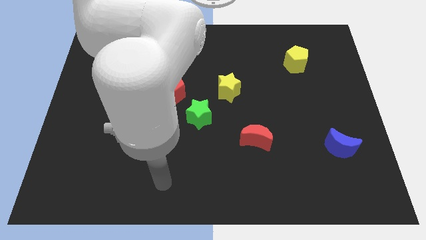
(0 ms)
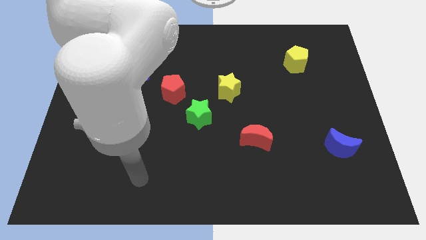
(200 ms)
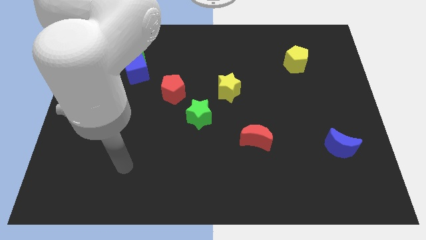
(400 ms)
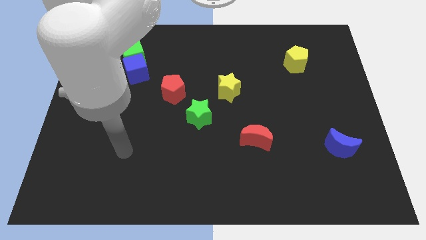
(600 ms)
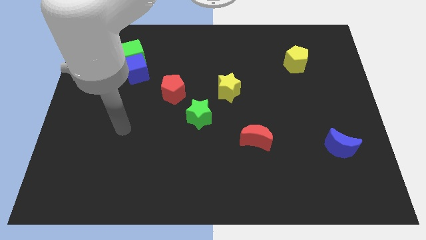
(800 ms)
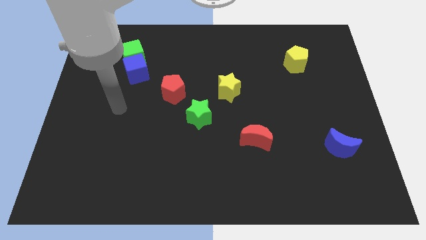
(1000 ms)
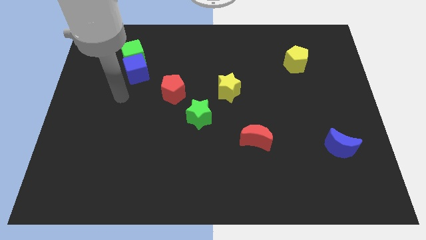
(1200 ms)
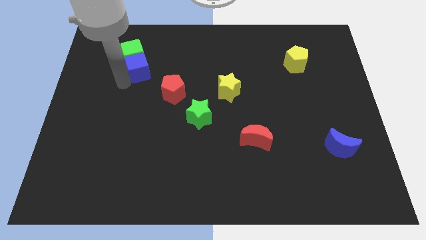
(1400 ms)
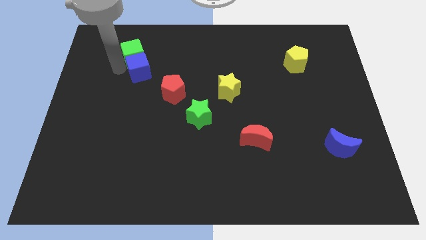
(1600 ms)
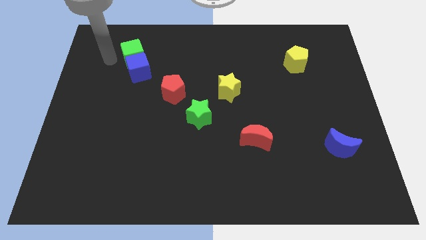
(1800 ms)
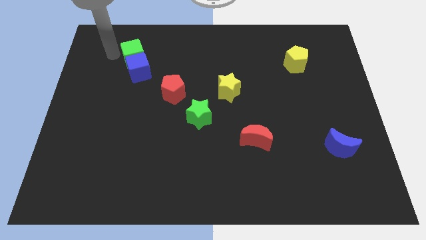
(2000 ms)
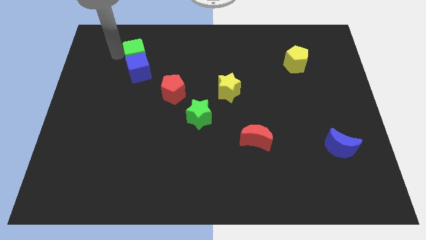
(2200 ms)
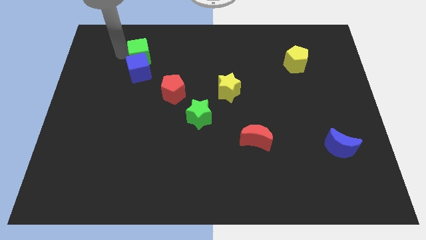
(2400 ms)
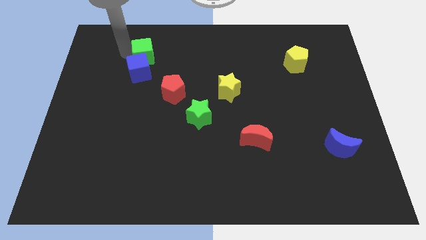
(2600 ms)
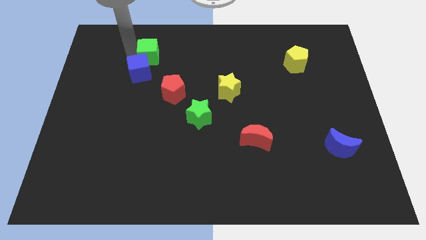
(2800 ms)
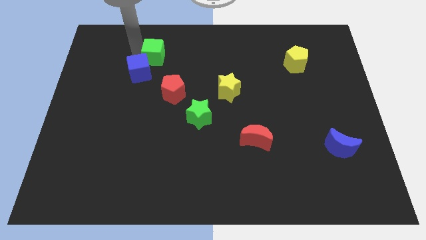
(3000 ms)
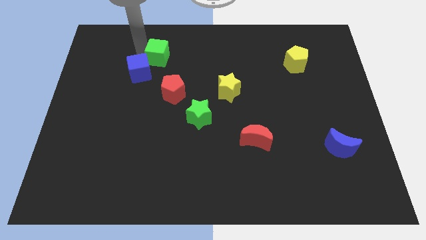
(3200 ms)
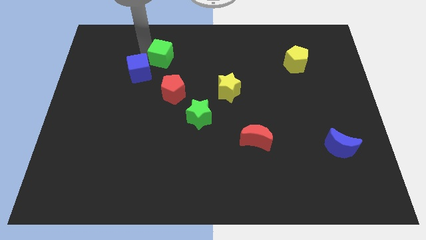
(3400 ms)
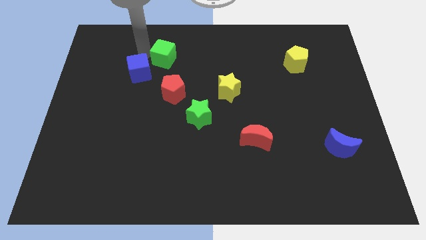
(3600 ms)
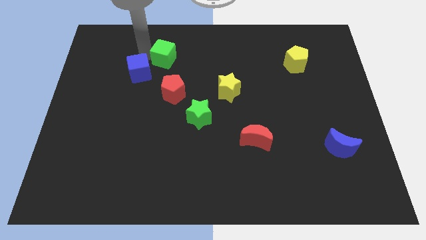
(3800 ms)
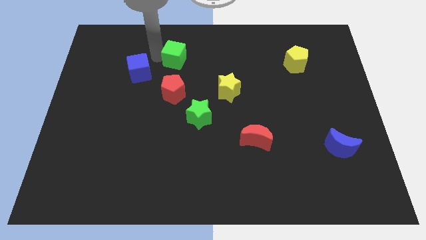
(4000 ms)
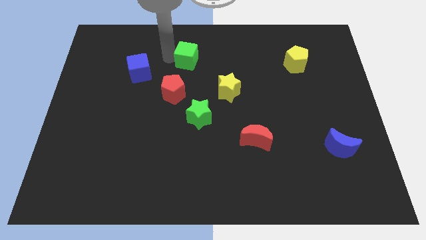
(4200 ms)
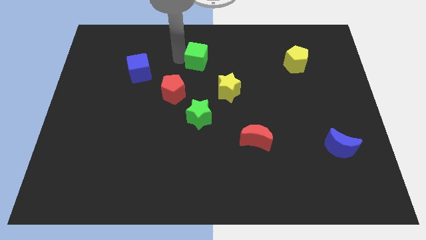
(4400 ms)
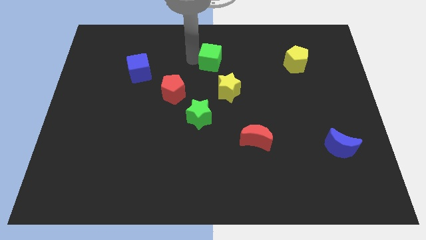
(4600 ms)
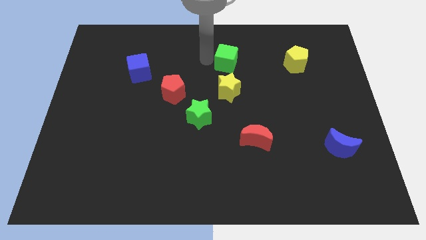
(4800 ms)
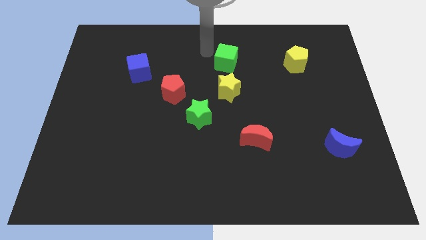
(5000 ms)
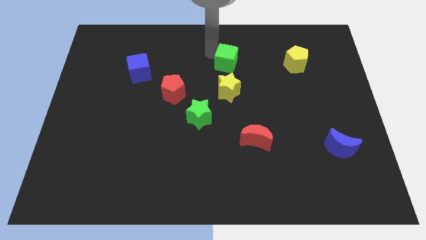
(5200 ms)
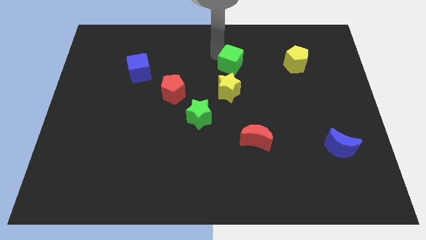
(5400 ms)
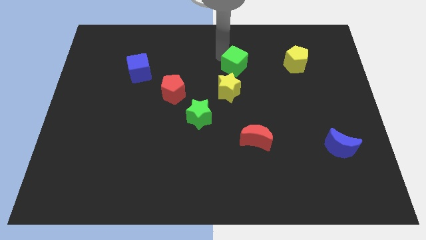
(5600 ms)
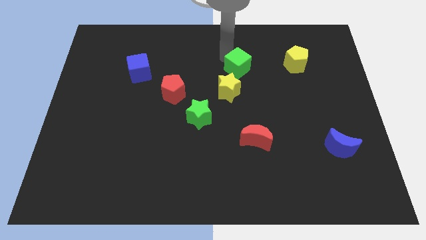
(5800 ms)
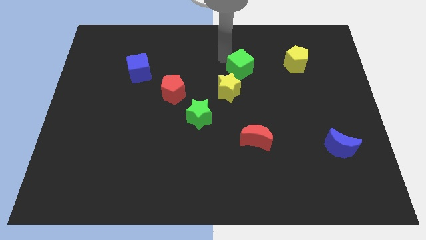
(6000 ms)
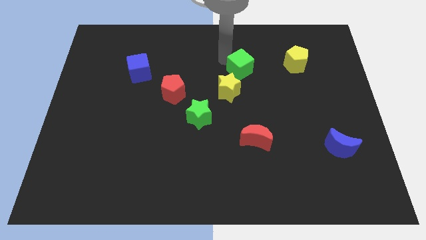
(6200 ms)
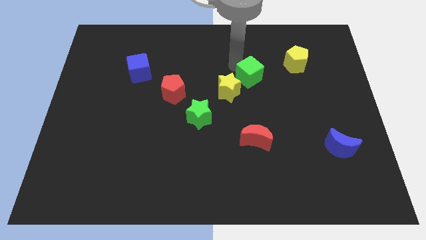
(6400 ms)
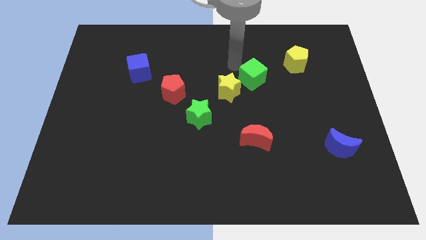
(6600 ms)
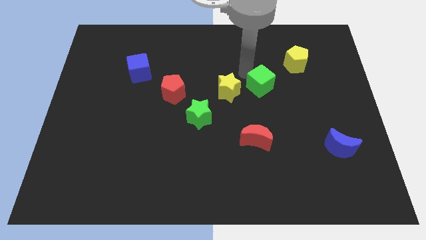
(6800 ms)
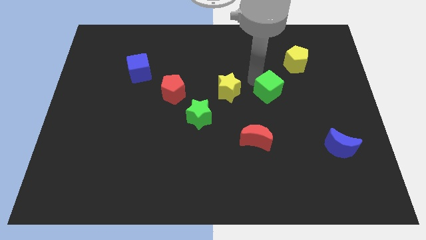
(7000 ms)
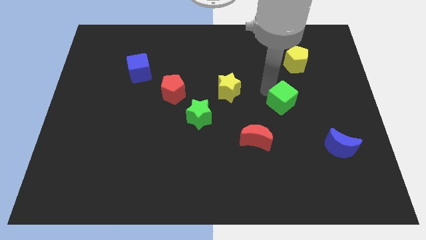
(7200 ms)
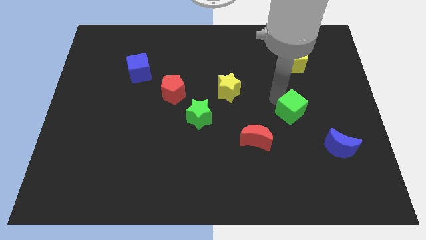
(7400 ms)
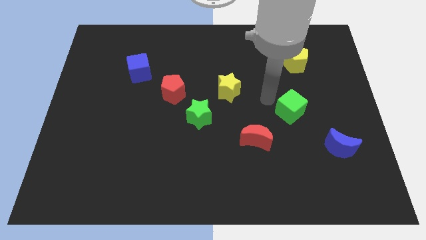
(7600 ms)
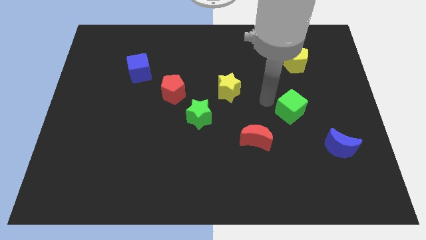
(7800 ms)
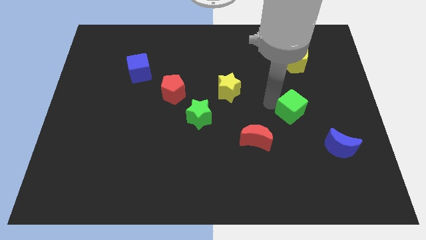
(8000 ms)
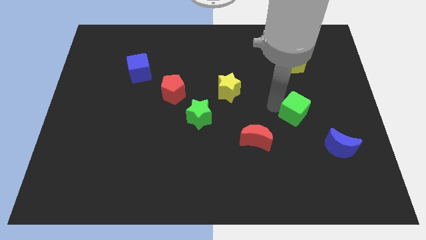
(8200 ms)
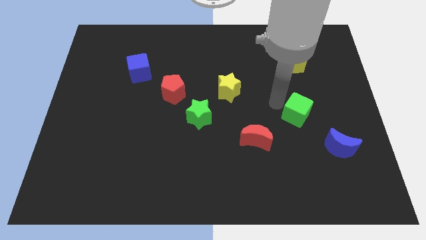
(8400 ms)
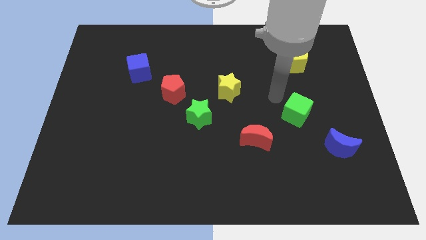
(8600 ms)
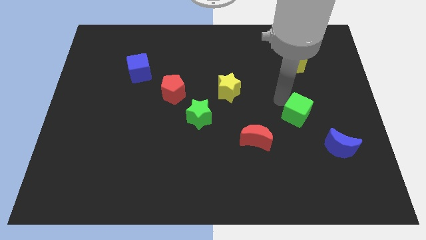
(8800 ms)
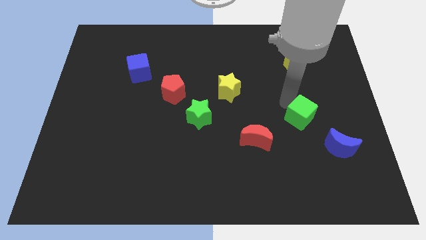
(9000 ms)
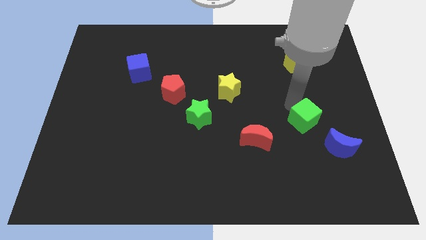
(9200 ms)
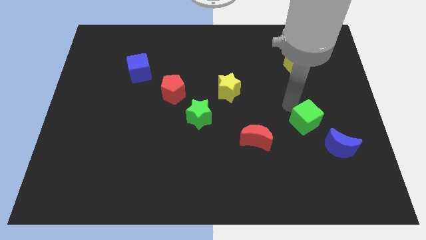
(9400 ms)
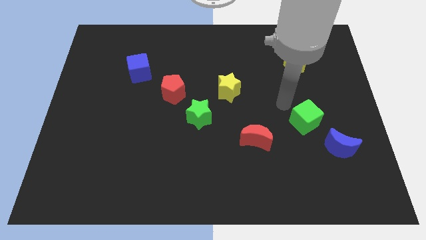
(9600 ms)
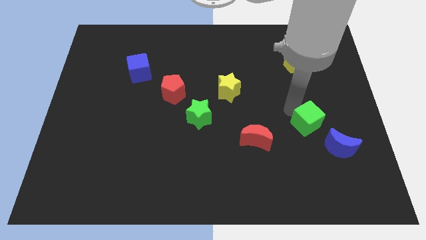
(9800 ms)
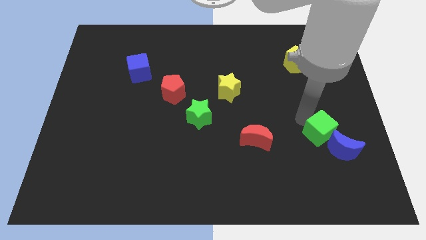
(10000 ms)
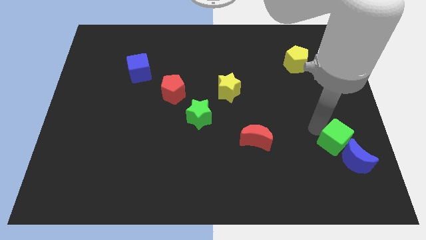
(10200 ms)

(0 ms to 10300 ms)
put the green cube to the blue moon

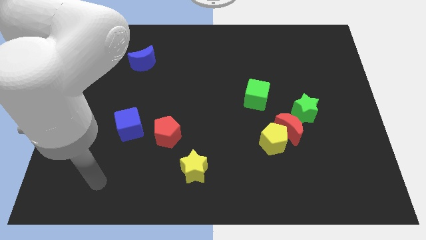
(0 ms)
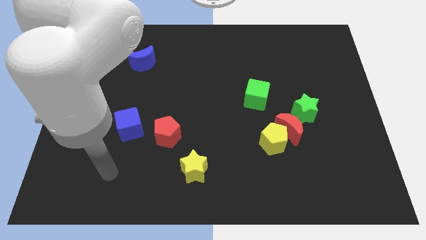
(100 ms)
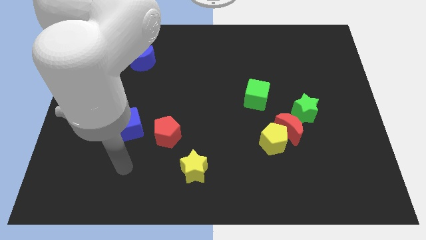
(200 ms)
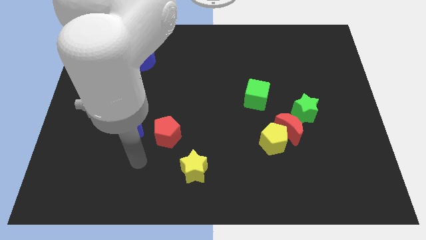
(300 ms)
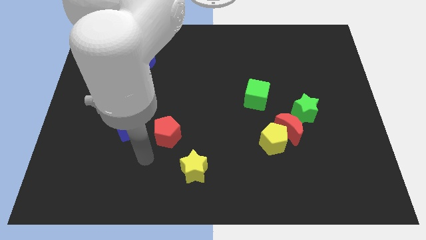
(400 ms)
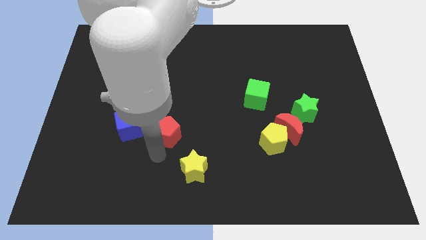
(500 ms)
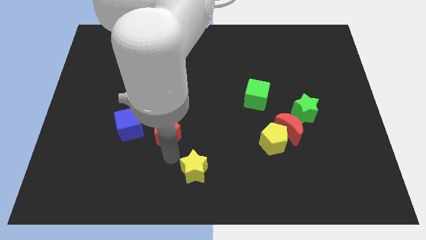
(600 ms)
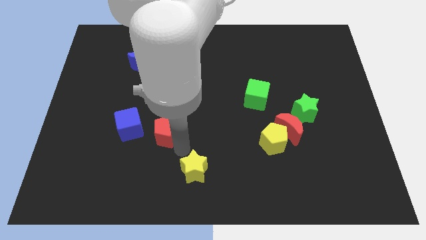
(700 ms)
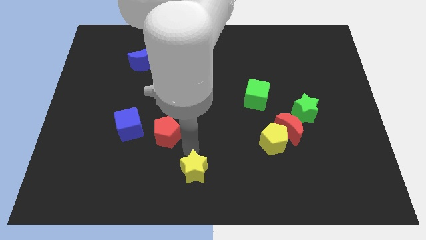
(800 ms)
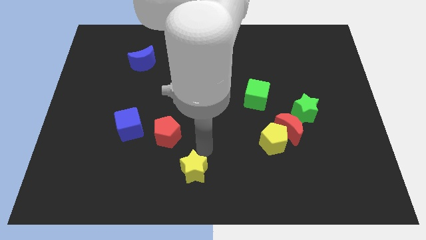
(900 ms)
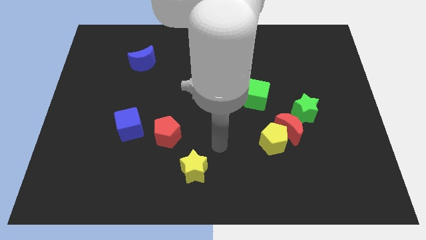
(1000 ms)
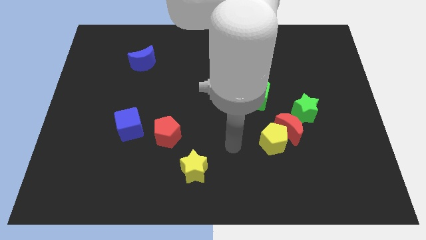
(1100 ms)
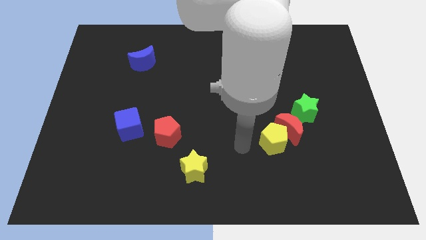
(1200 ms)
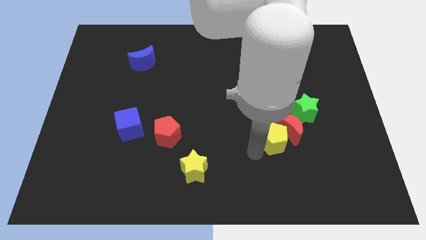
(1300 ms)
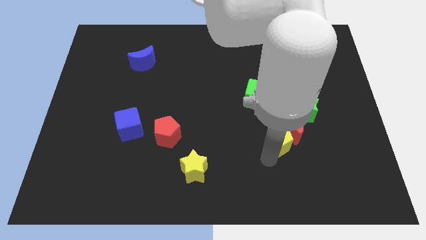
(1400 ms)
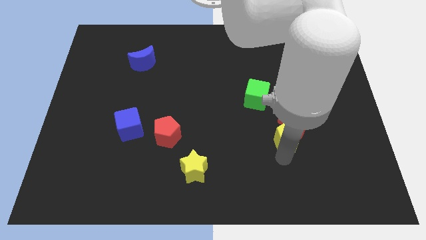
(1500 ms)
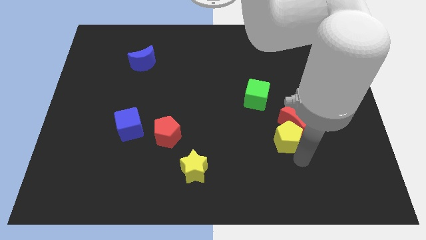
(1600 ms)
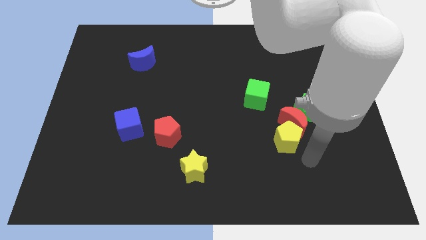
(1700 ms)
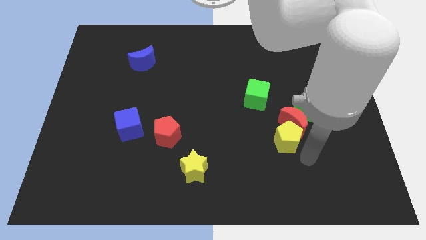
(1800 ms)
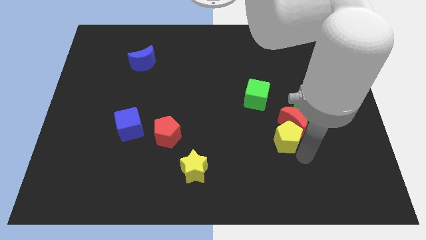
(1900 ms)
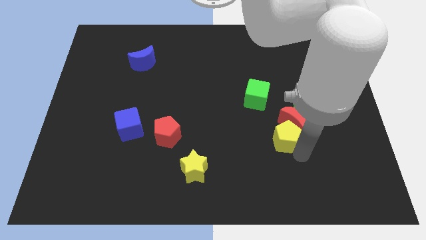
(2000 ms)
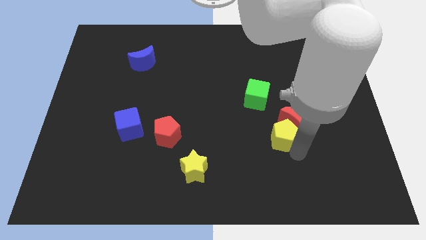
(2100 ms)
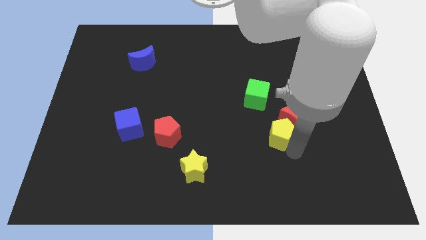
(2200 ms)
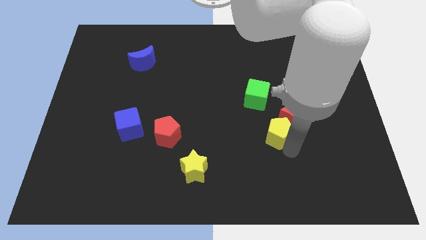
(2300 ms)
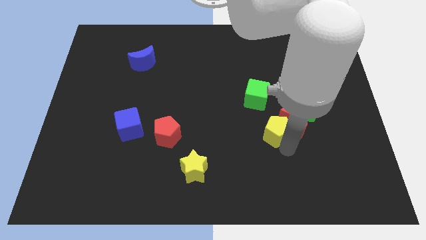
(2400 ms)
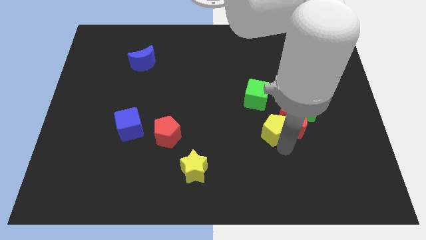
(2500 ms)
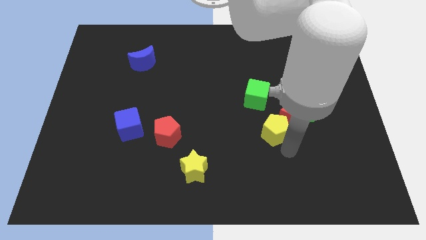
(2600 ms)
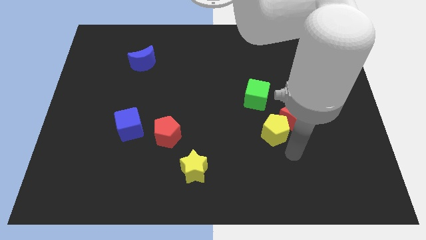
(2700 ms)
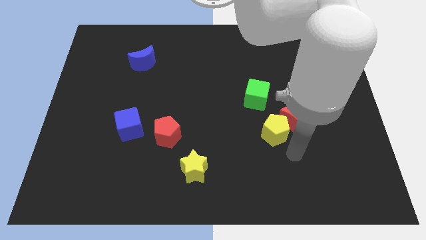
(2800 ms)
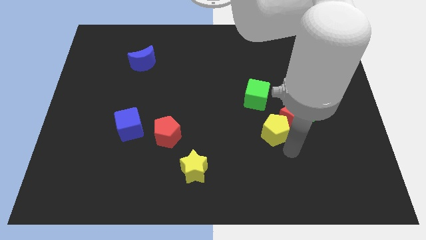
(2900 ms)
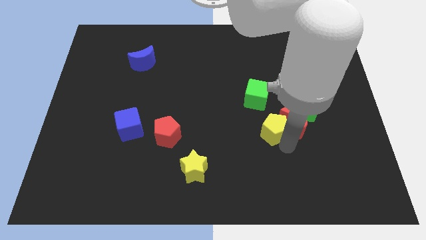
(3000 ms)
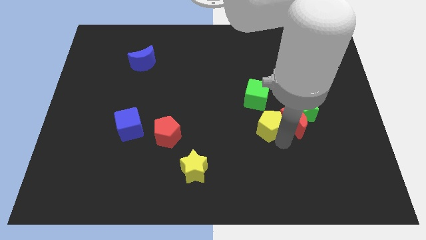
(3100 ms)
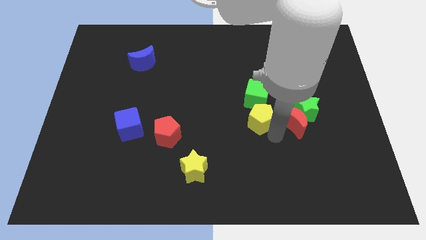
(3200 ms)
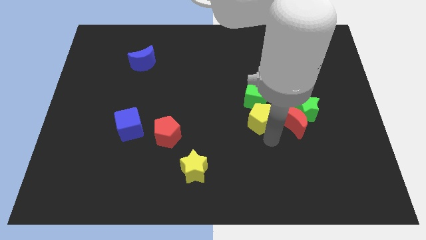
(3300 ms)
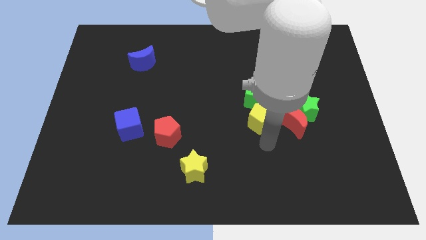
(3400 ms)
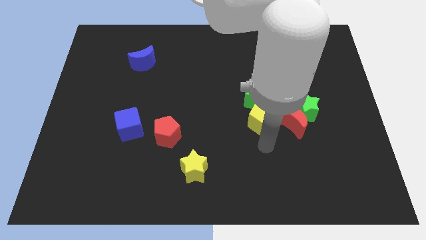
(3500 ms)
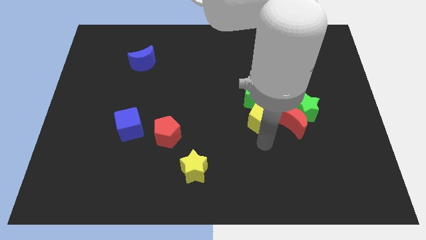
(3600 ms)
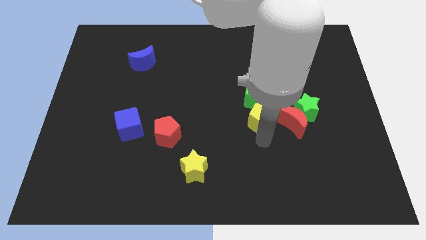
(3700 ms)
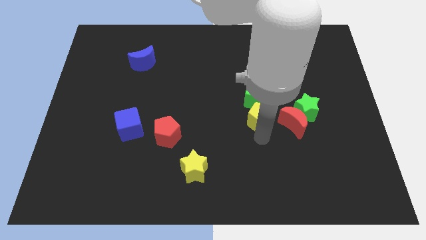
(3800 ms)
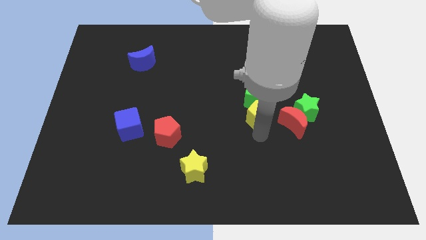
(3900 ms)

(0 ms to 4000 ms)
push the yellow pentagon to the green cube
